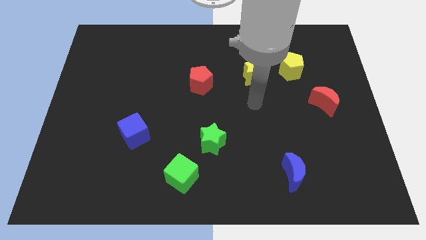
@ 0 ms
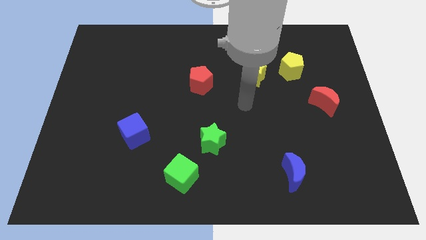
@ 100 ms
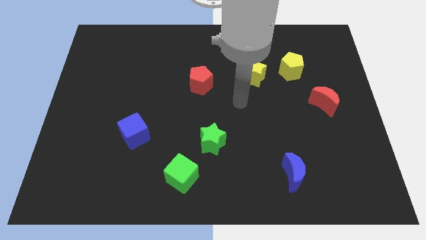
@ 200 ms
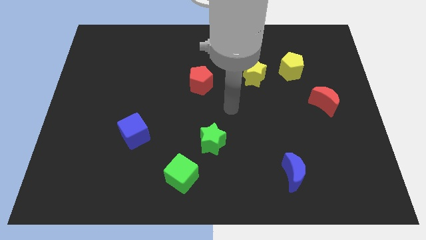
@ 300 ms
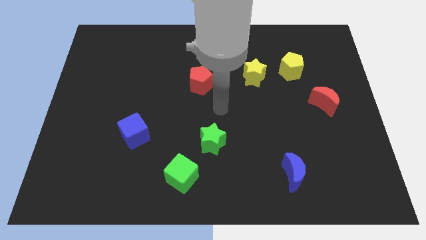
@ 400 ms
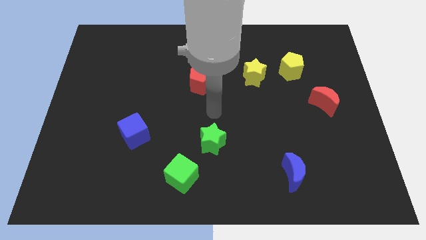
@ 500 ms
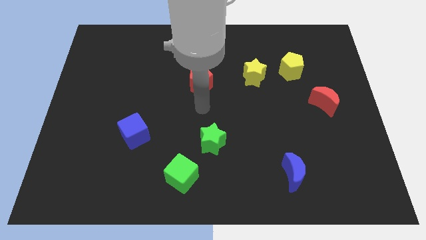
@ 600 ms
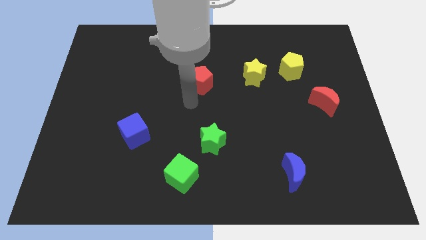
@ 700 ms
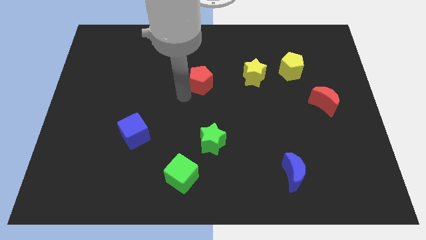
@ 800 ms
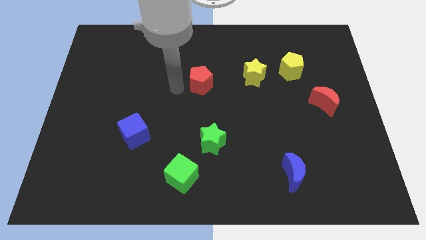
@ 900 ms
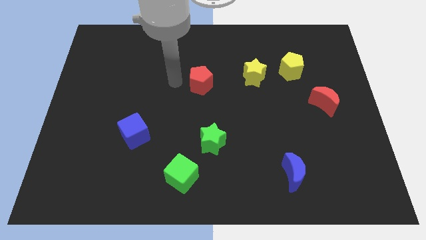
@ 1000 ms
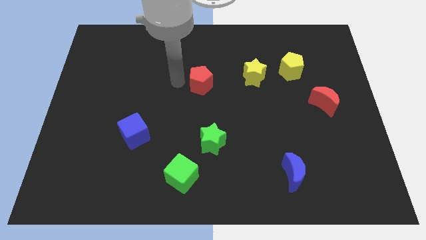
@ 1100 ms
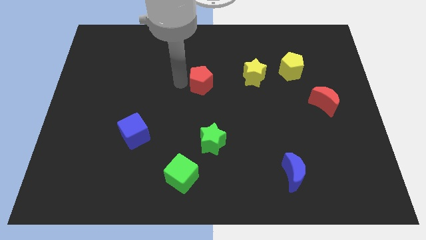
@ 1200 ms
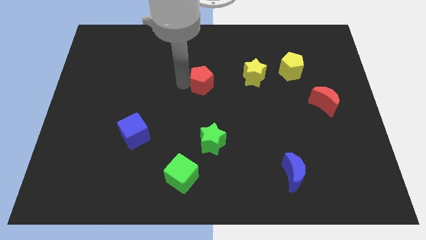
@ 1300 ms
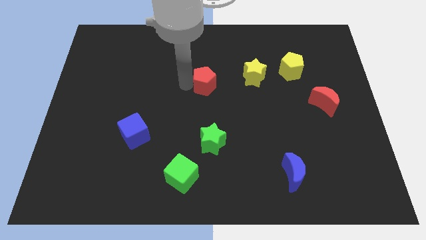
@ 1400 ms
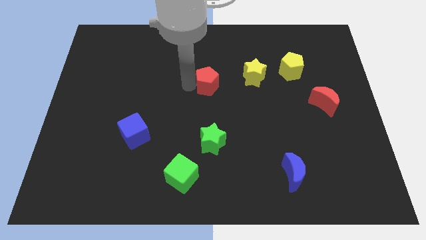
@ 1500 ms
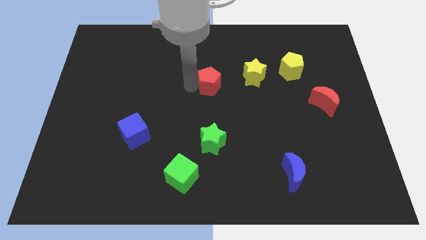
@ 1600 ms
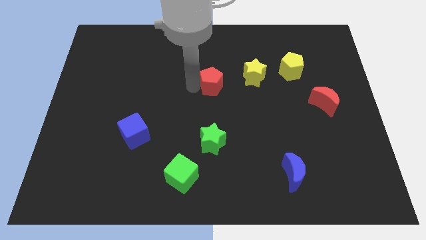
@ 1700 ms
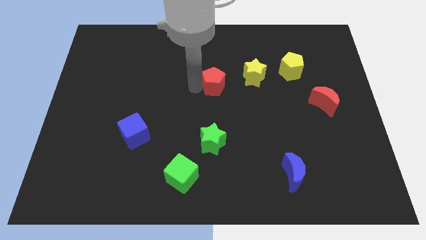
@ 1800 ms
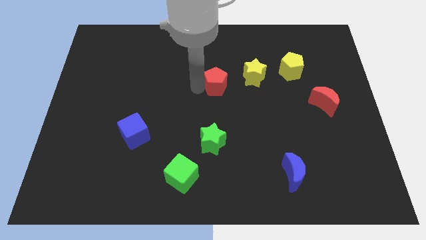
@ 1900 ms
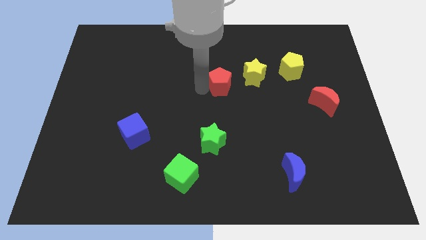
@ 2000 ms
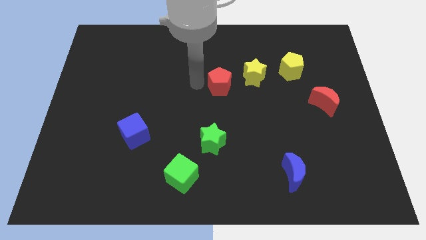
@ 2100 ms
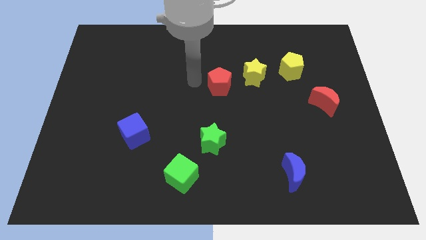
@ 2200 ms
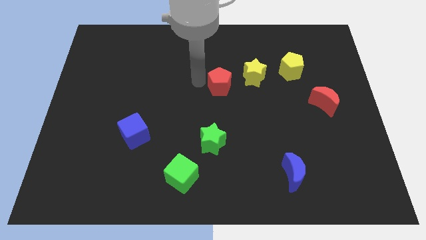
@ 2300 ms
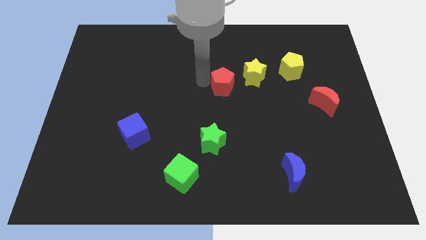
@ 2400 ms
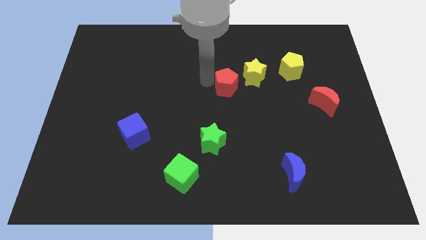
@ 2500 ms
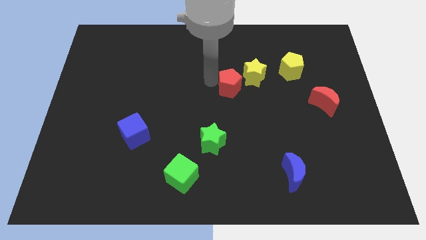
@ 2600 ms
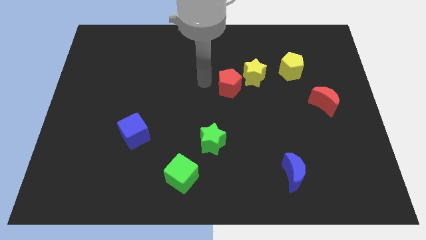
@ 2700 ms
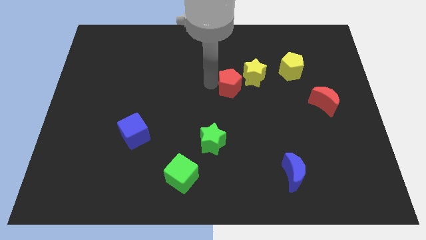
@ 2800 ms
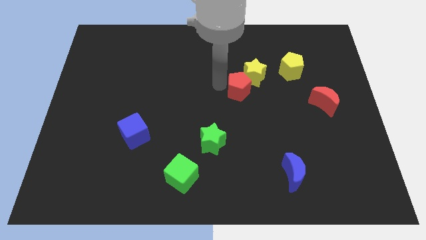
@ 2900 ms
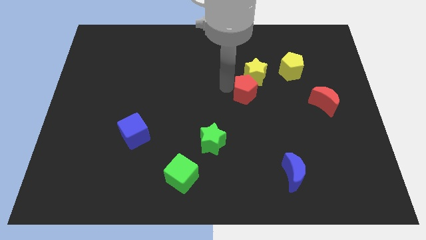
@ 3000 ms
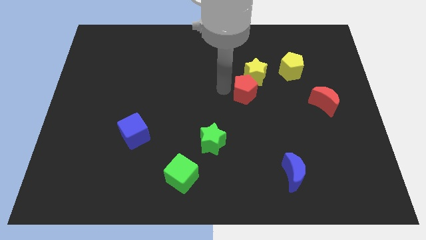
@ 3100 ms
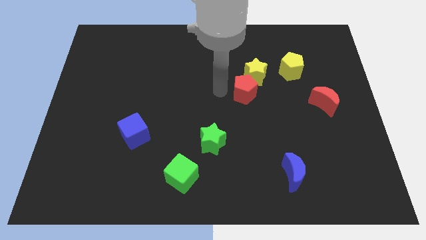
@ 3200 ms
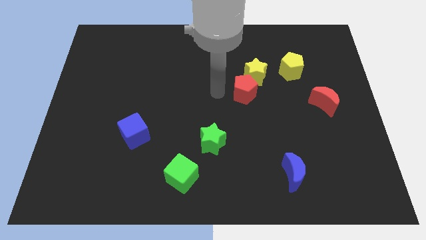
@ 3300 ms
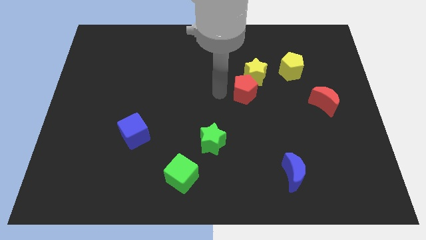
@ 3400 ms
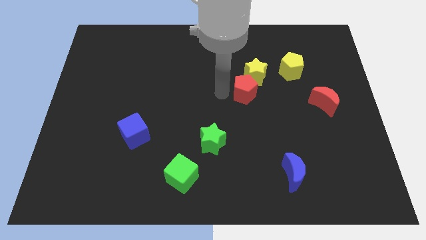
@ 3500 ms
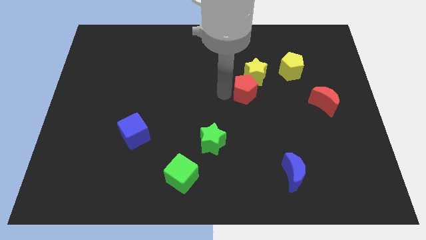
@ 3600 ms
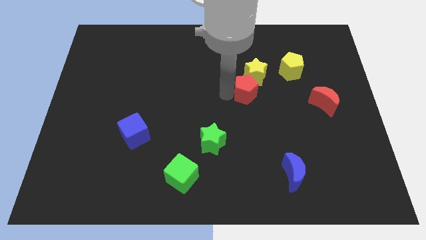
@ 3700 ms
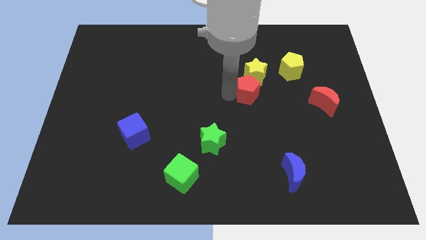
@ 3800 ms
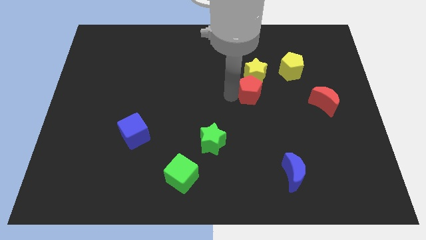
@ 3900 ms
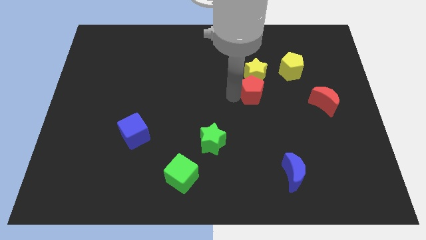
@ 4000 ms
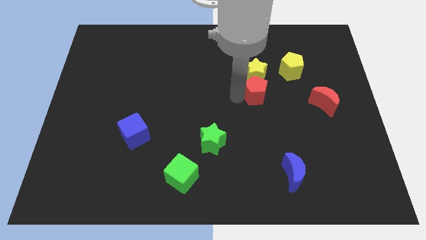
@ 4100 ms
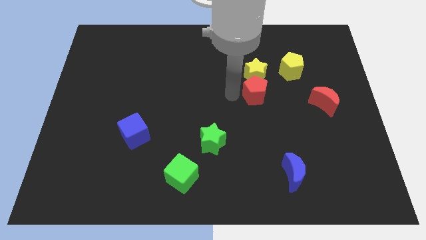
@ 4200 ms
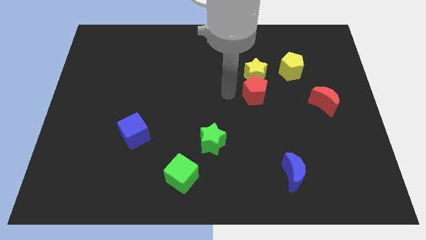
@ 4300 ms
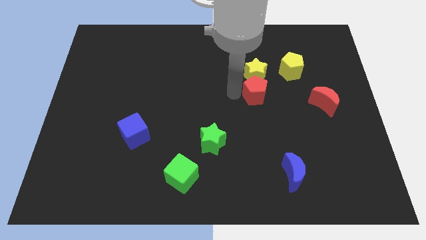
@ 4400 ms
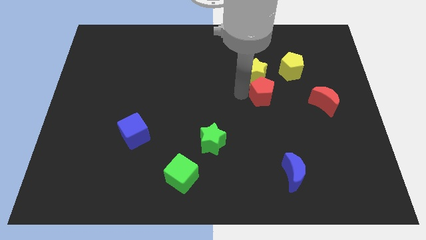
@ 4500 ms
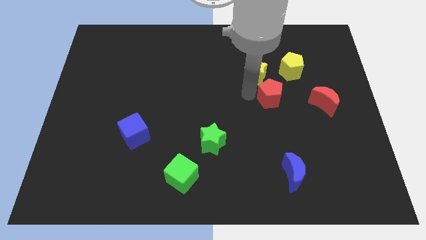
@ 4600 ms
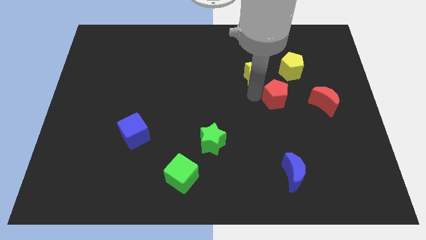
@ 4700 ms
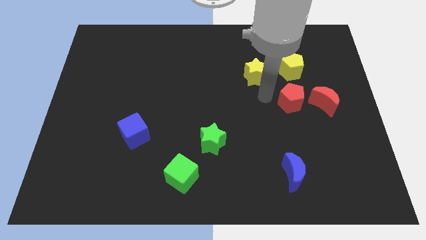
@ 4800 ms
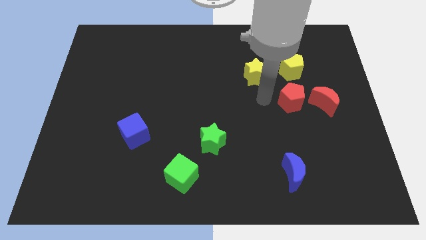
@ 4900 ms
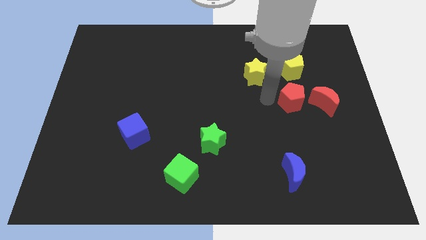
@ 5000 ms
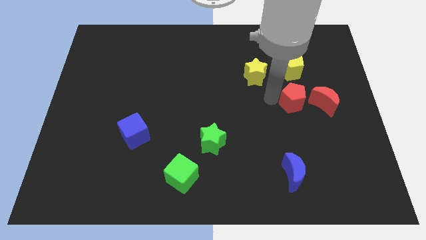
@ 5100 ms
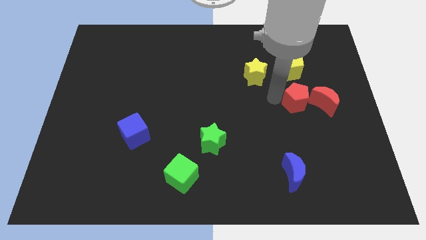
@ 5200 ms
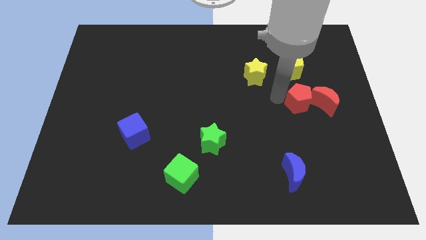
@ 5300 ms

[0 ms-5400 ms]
move the red pentagon to the red moon

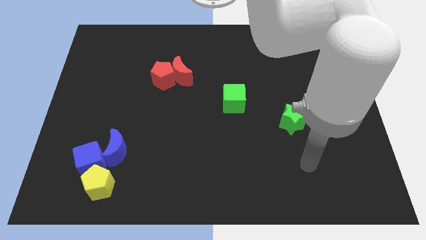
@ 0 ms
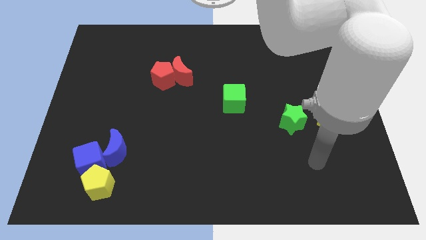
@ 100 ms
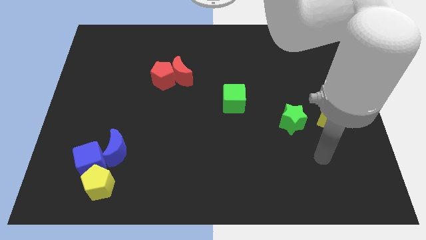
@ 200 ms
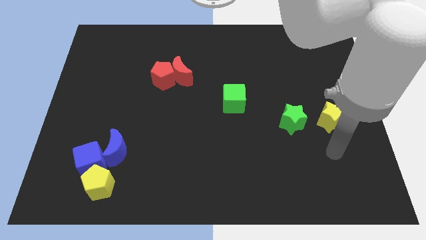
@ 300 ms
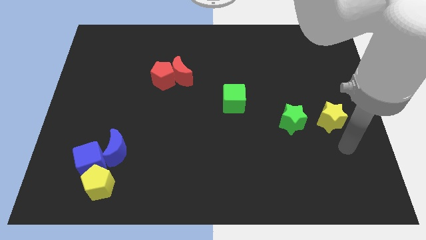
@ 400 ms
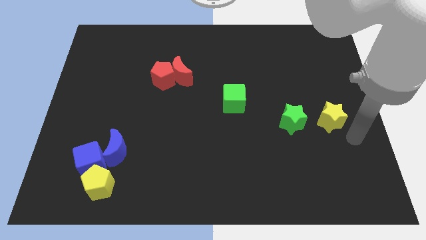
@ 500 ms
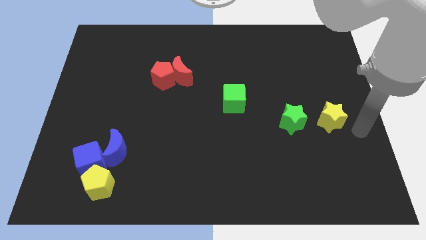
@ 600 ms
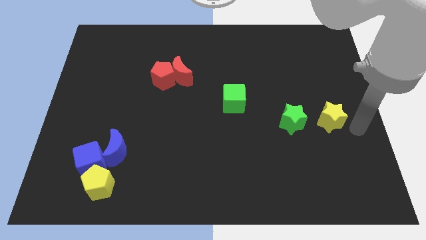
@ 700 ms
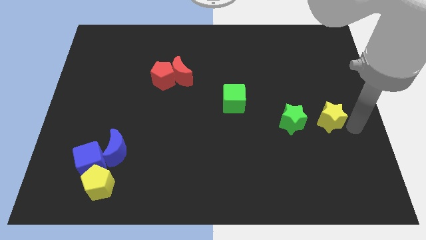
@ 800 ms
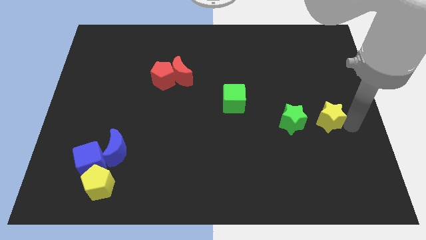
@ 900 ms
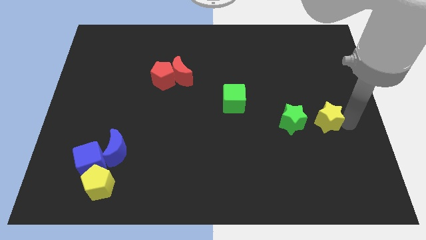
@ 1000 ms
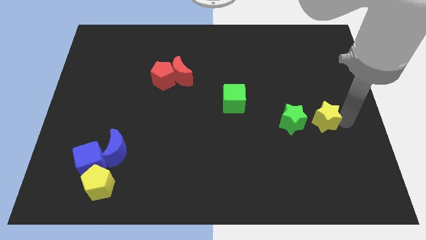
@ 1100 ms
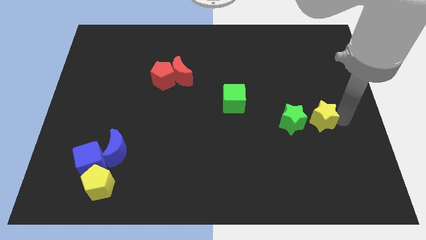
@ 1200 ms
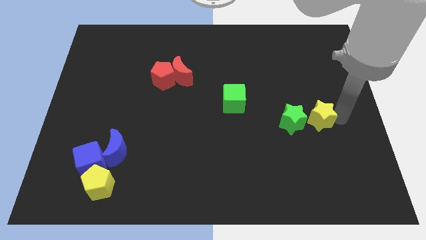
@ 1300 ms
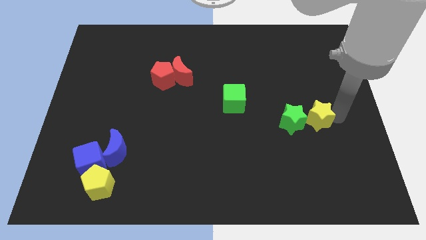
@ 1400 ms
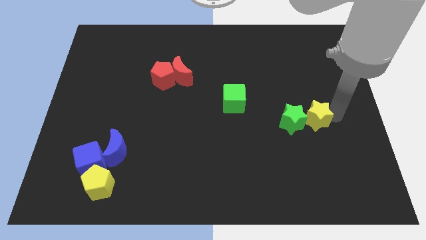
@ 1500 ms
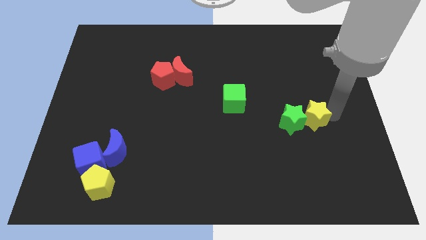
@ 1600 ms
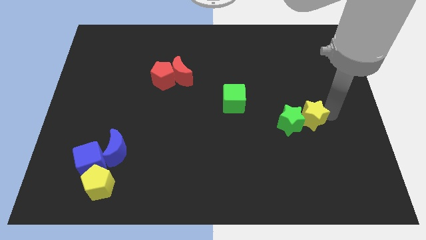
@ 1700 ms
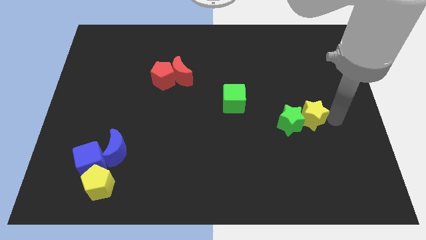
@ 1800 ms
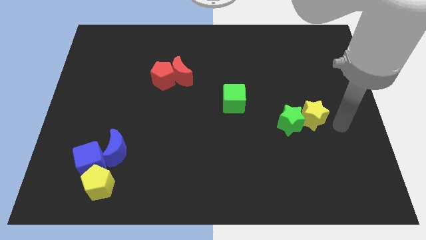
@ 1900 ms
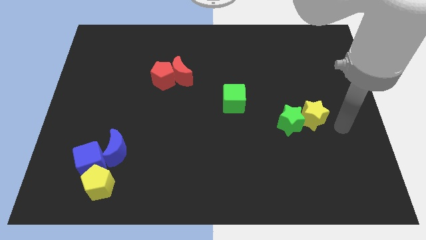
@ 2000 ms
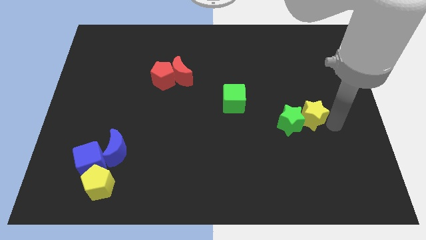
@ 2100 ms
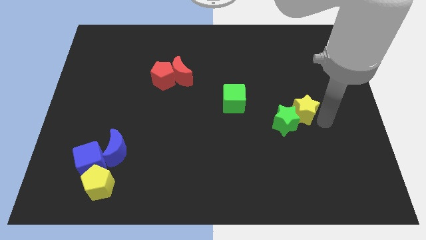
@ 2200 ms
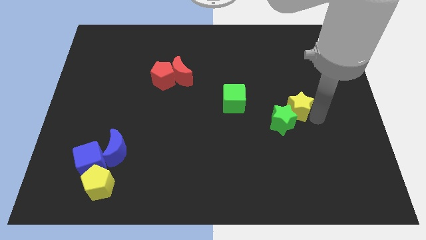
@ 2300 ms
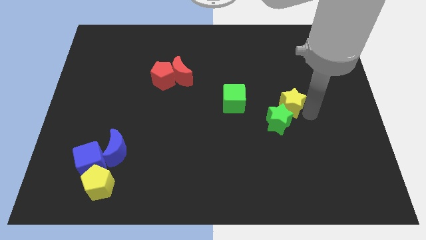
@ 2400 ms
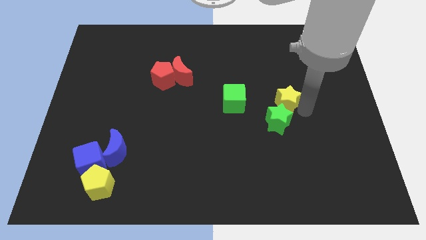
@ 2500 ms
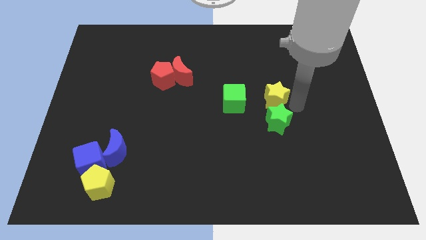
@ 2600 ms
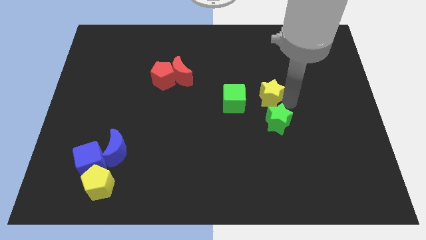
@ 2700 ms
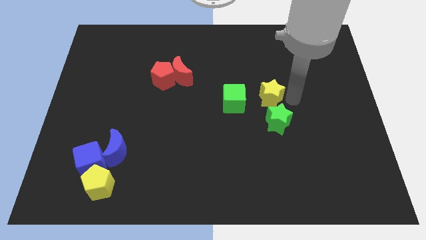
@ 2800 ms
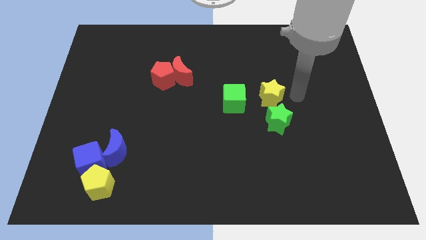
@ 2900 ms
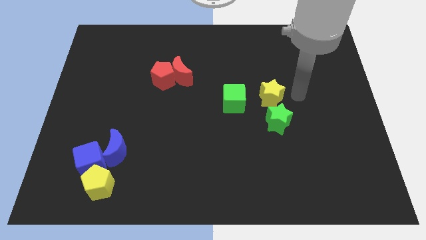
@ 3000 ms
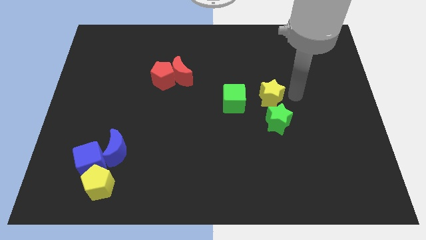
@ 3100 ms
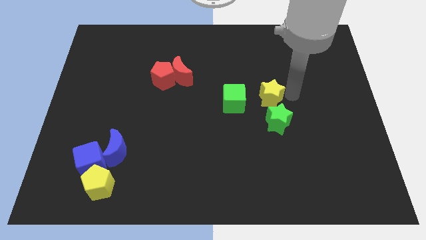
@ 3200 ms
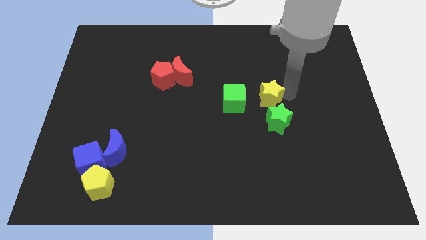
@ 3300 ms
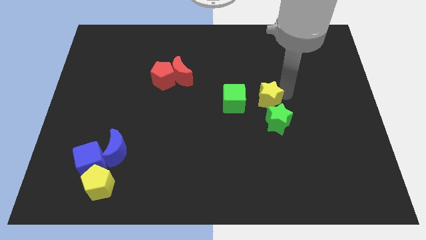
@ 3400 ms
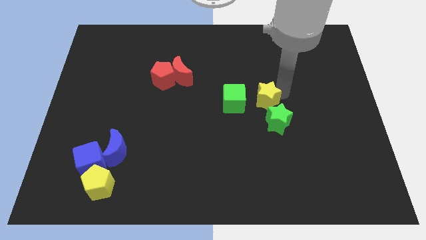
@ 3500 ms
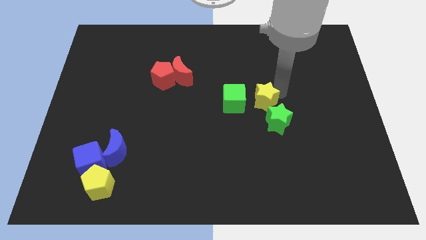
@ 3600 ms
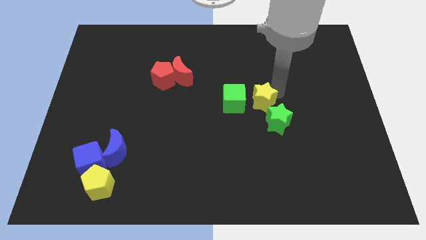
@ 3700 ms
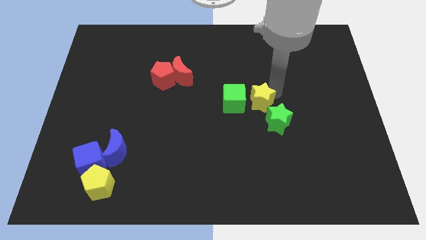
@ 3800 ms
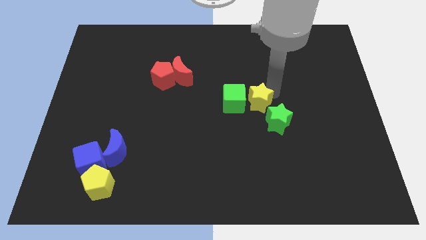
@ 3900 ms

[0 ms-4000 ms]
slide the yellow star next to the green cube
